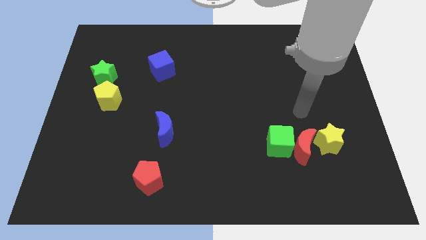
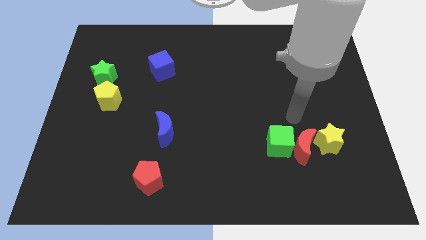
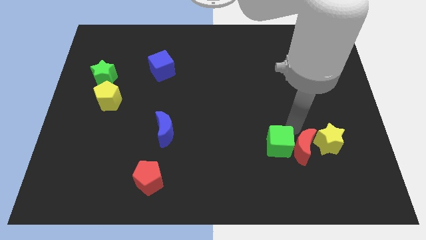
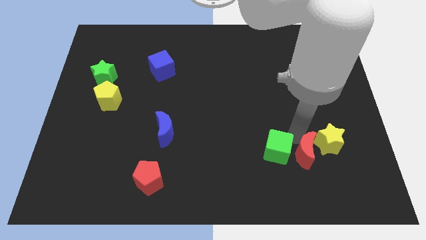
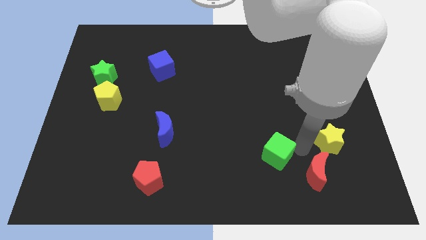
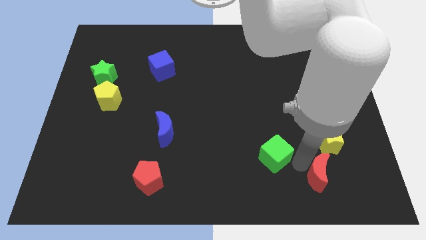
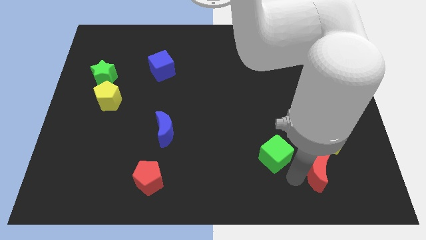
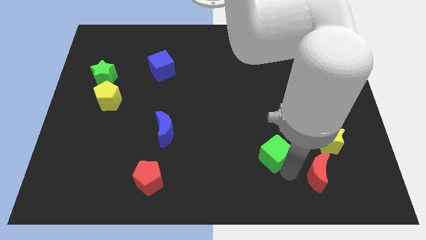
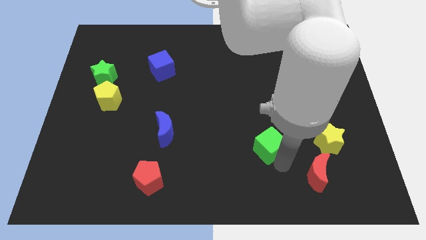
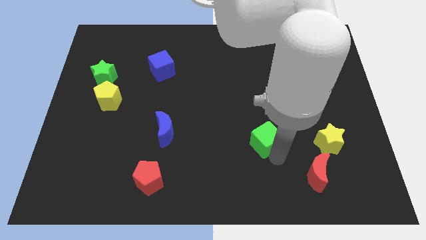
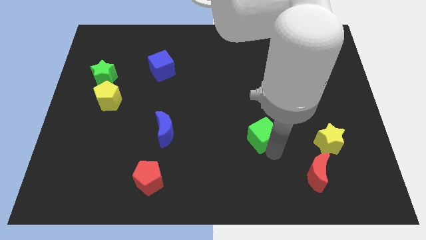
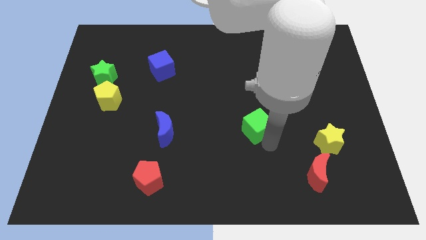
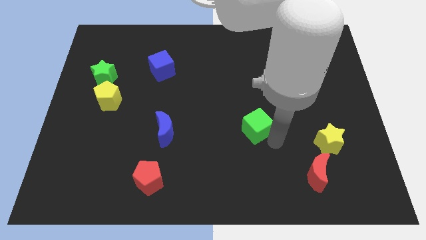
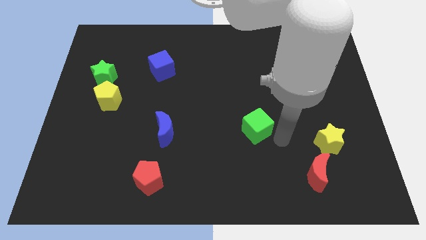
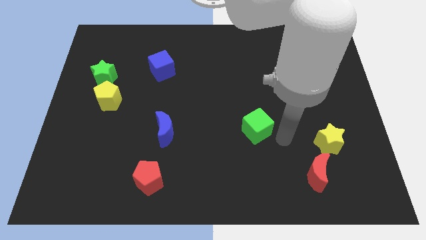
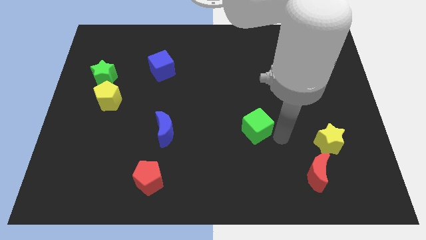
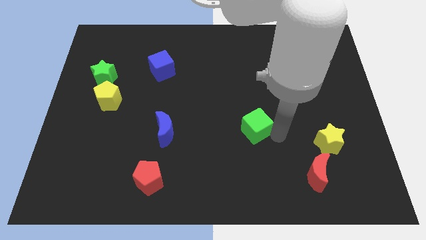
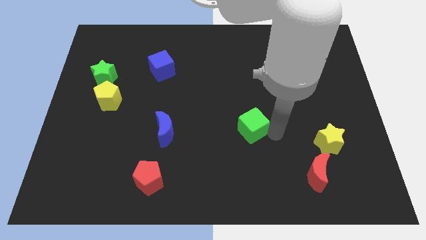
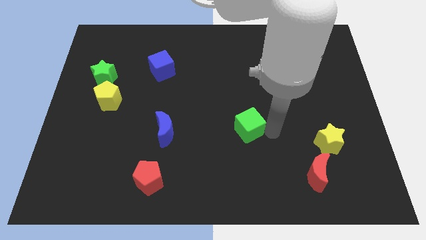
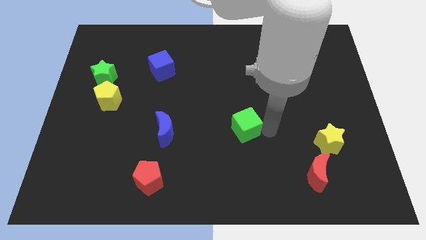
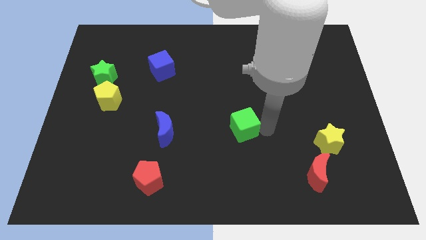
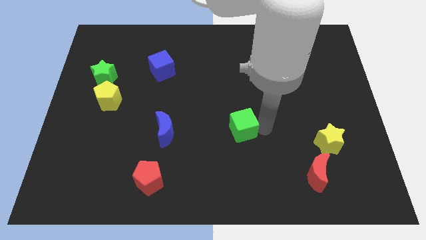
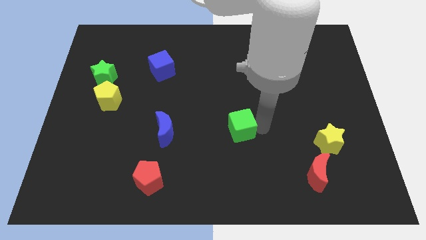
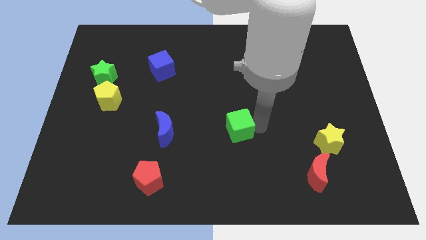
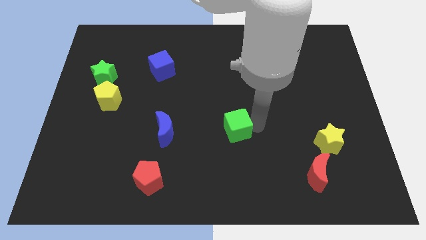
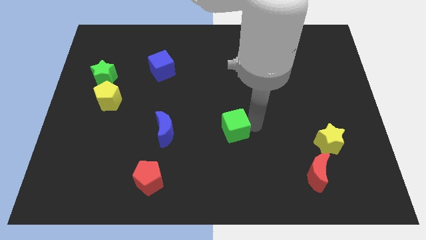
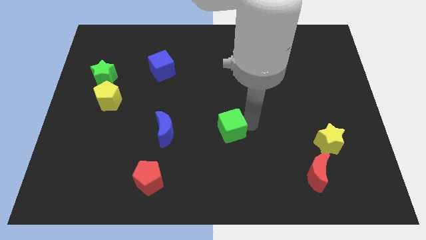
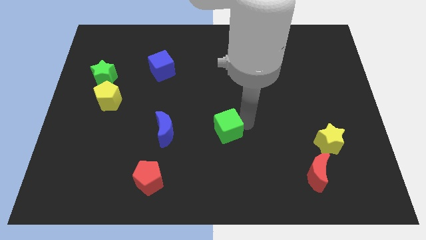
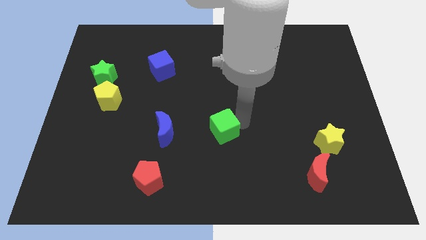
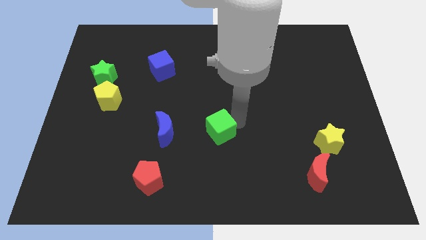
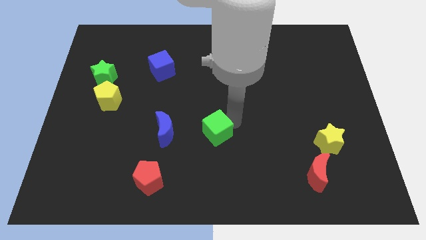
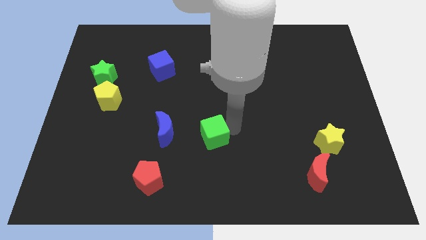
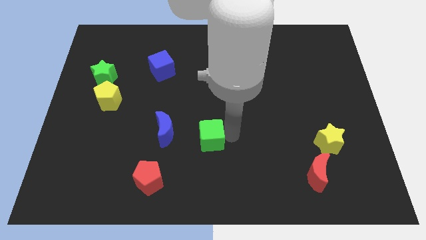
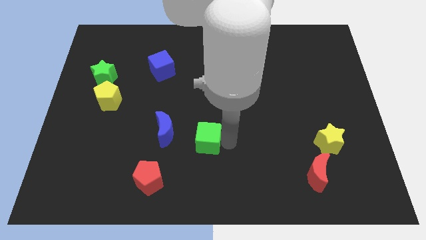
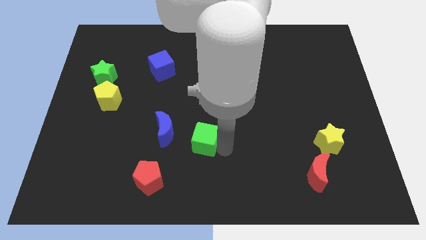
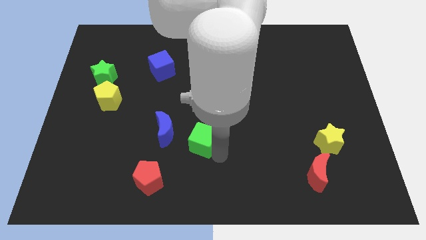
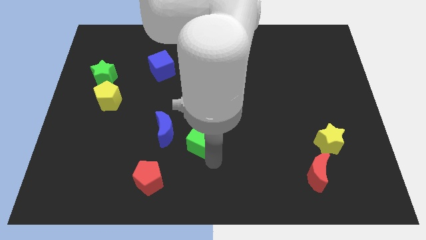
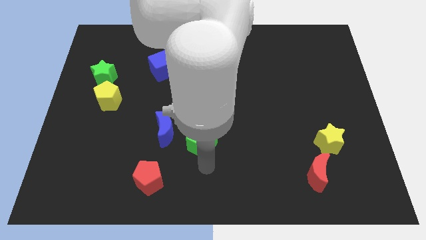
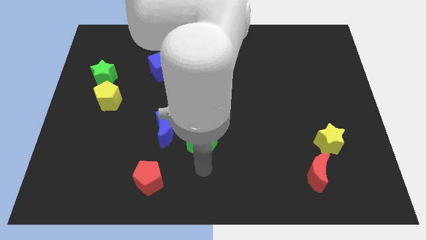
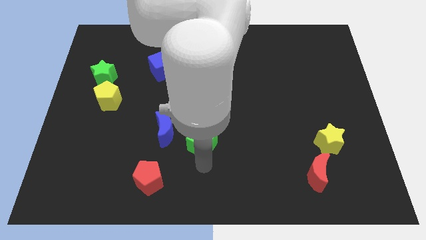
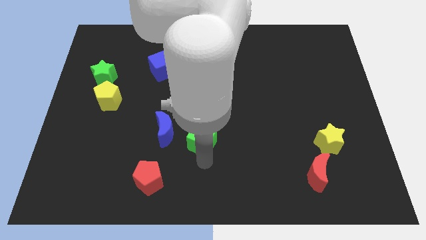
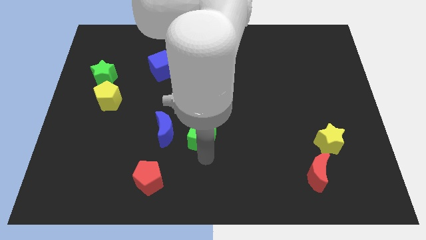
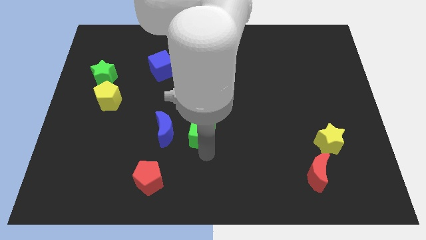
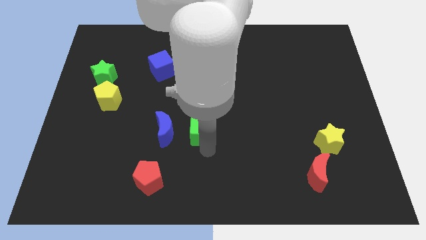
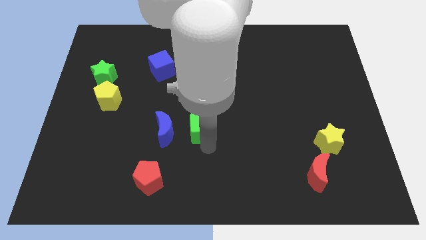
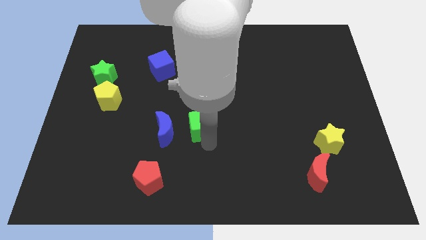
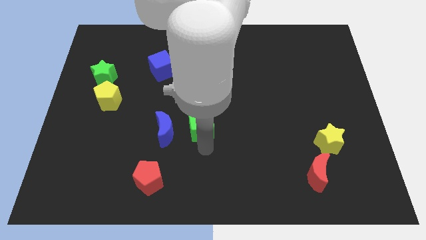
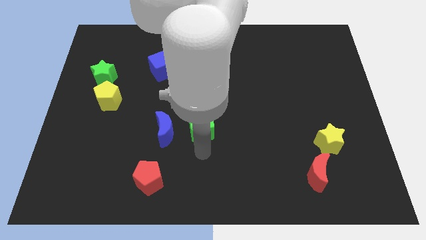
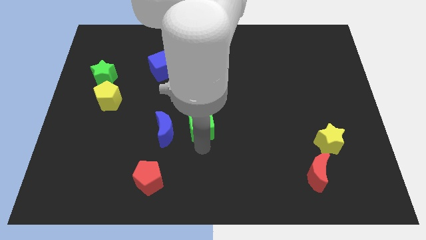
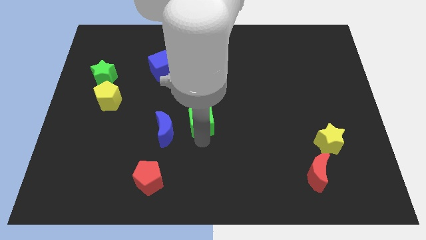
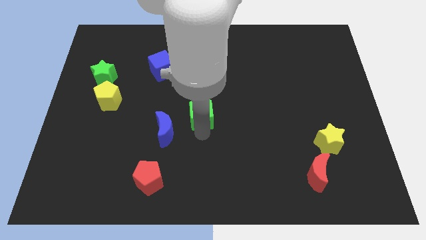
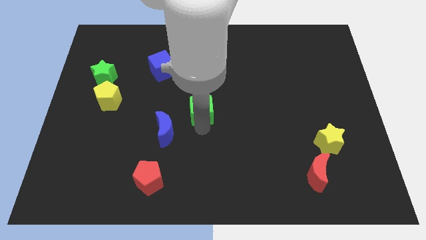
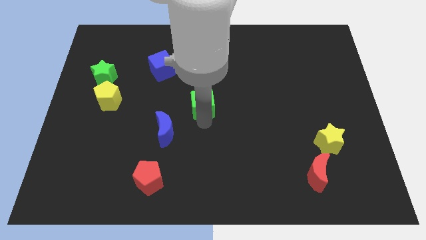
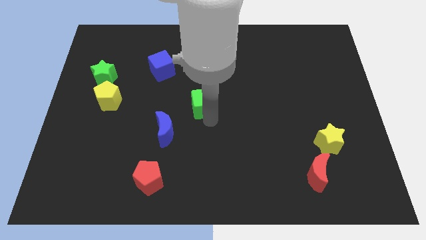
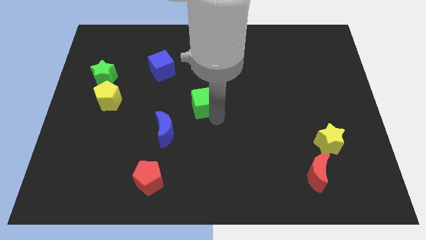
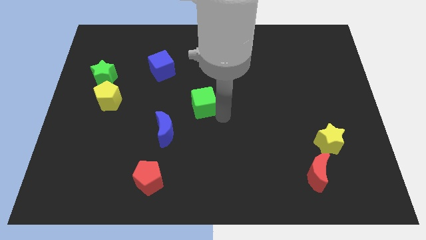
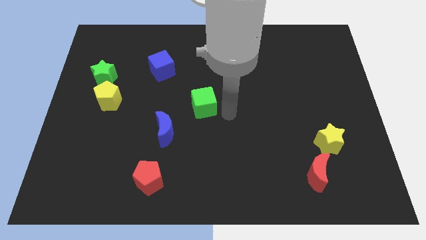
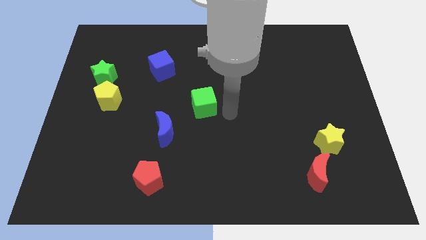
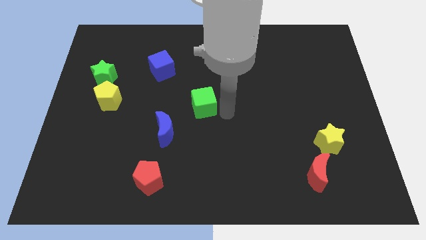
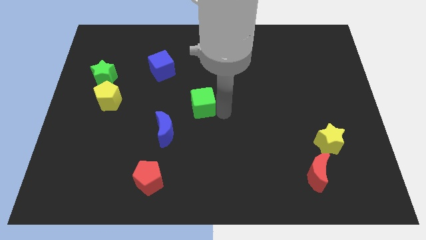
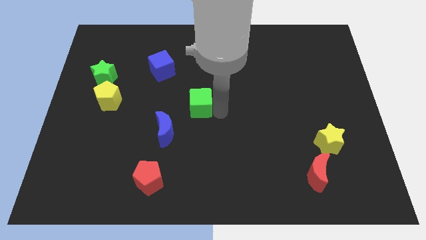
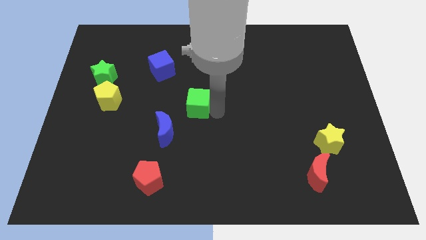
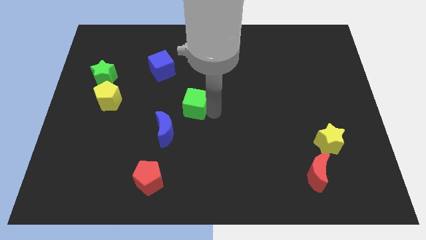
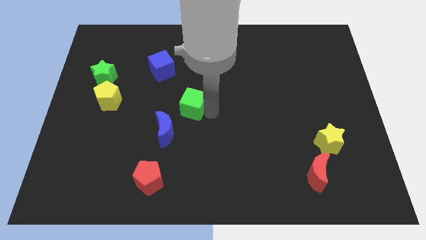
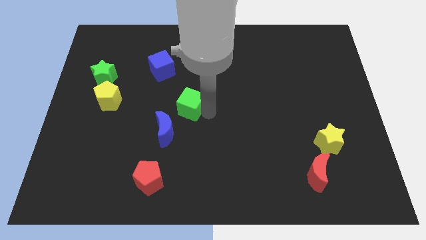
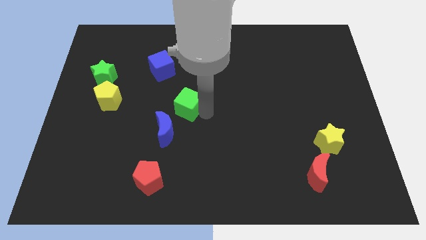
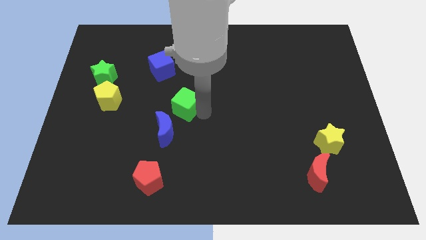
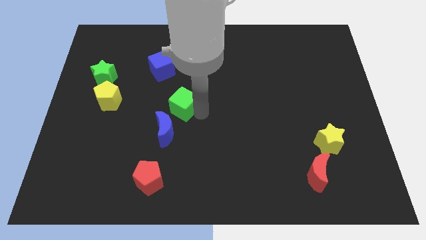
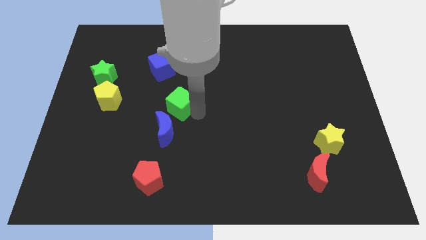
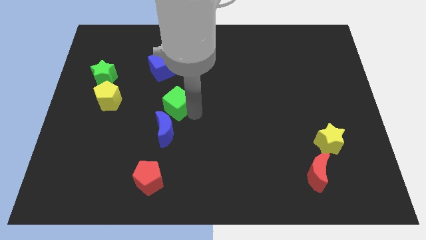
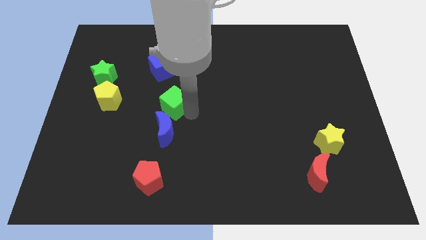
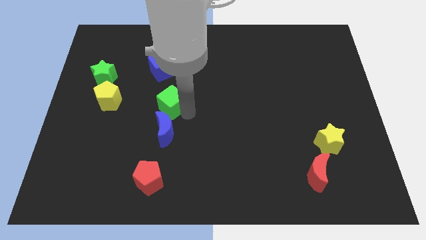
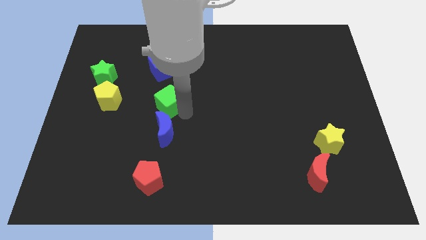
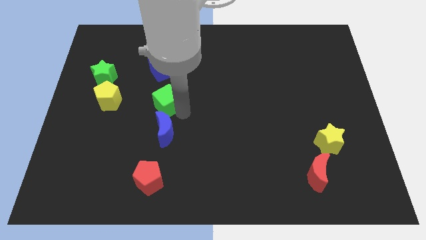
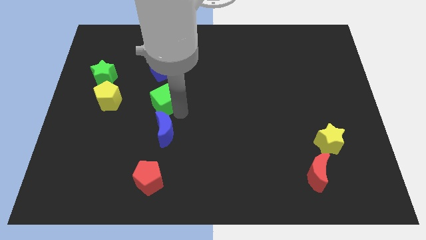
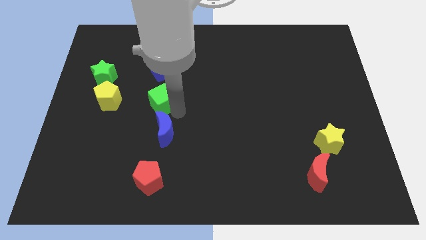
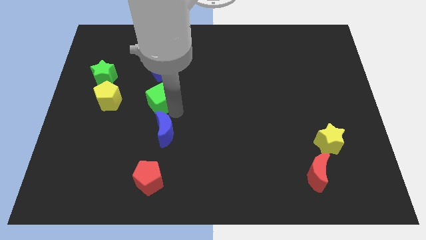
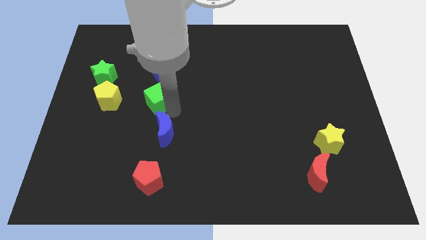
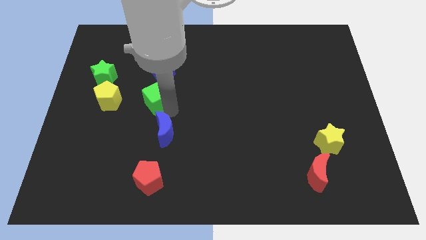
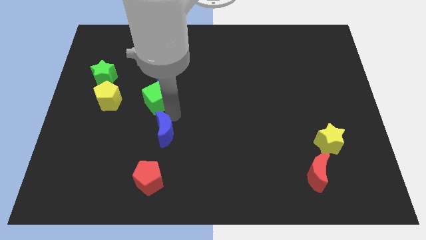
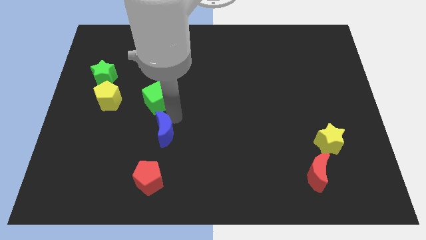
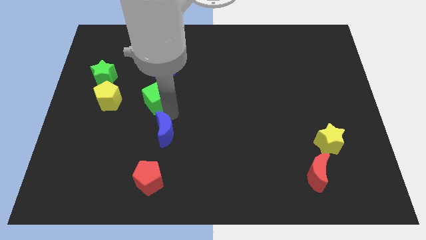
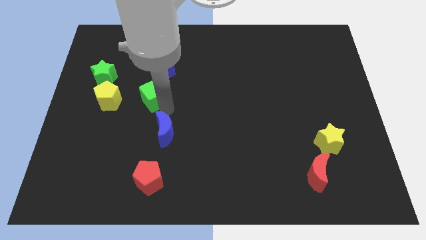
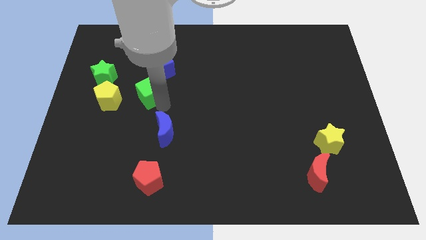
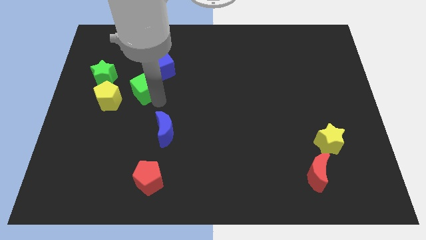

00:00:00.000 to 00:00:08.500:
put the green cube to the top right side of the yellow pentagon
